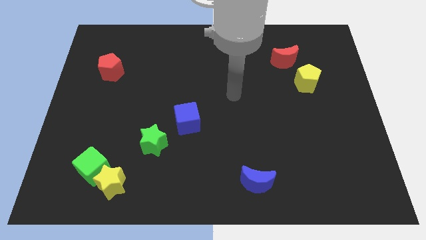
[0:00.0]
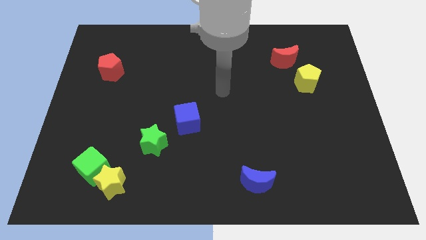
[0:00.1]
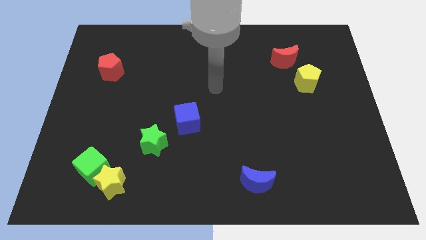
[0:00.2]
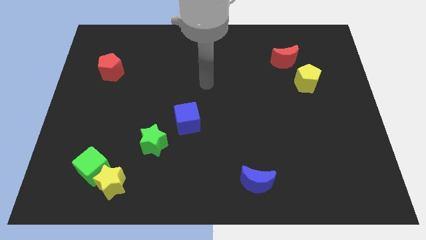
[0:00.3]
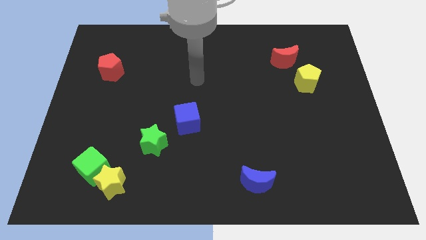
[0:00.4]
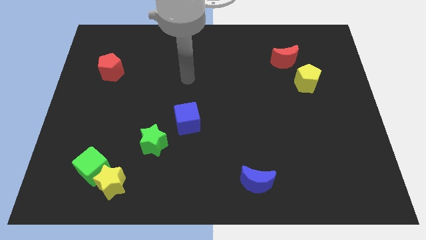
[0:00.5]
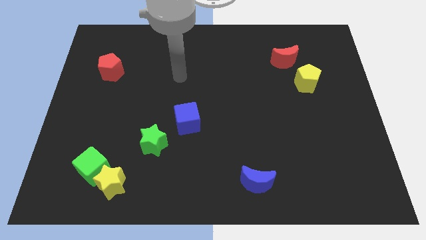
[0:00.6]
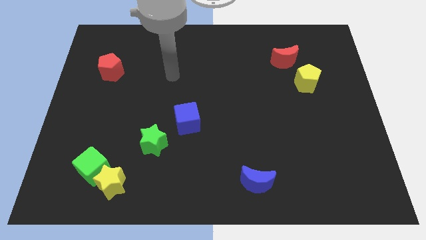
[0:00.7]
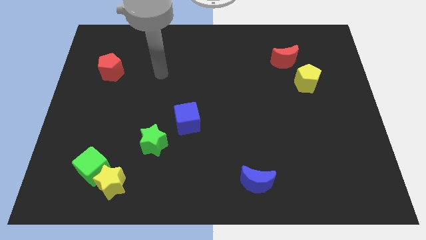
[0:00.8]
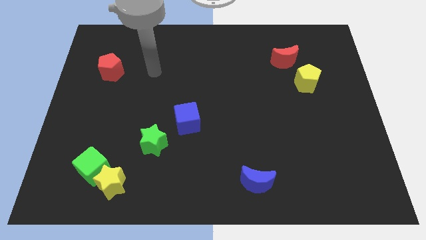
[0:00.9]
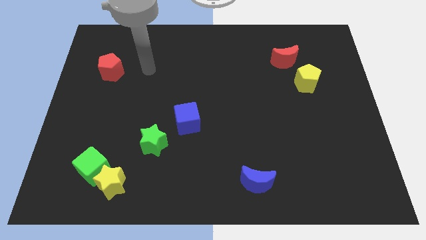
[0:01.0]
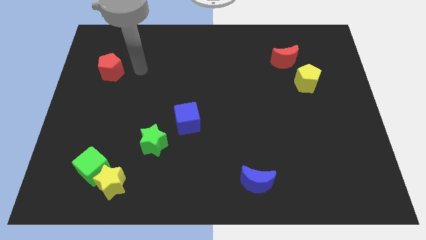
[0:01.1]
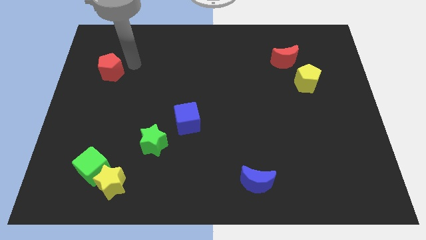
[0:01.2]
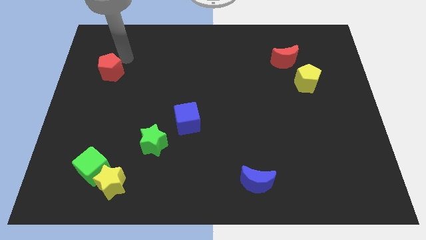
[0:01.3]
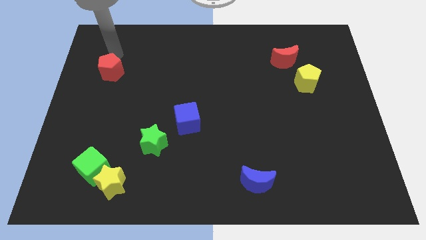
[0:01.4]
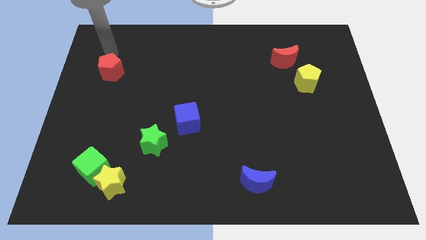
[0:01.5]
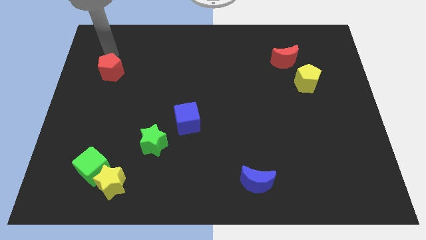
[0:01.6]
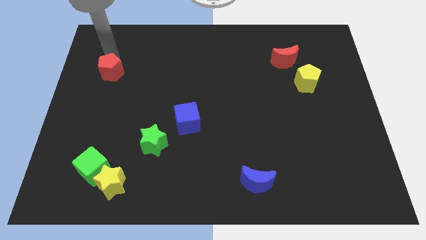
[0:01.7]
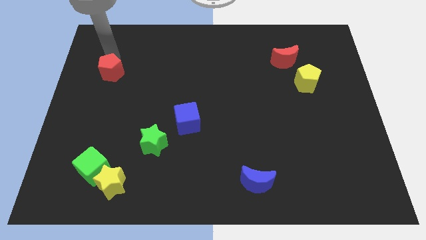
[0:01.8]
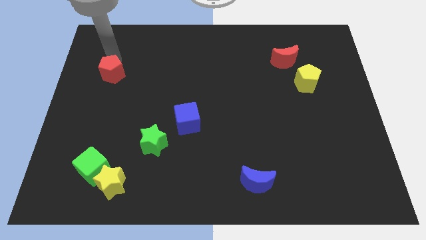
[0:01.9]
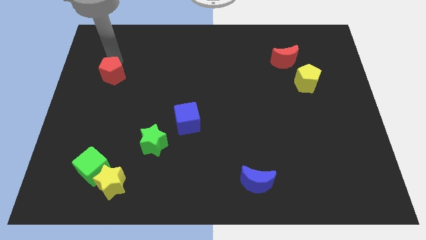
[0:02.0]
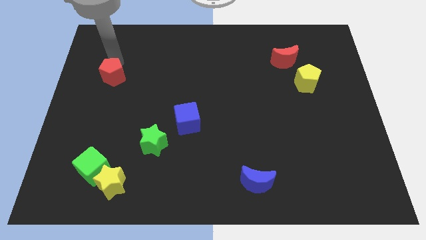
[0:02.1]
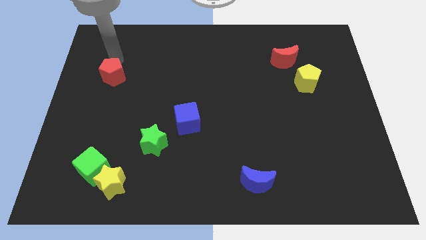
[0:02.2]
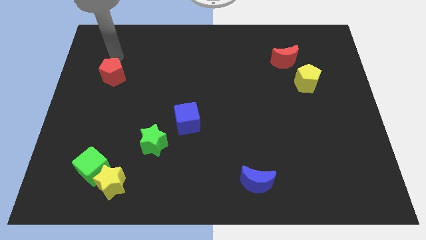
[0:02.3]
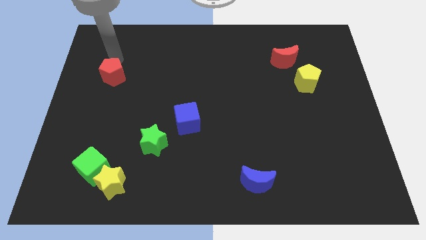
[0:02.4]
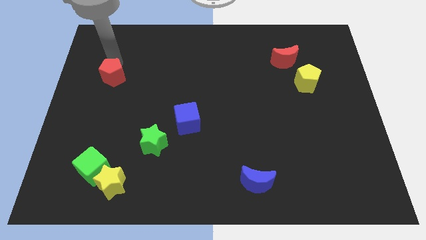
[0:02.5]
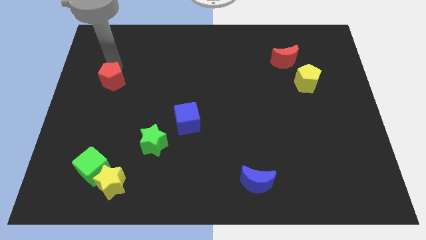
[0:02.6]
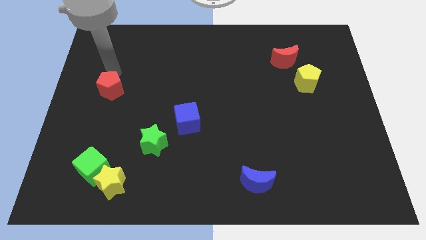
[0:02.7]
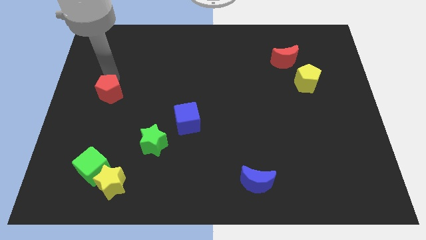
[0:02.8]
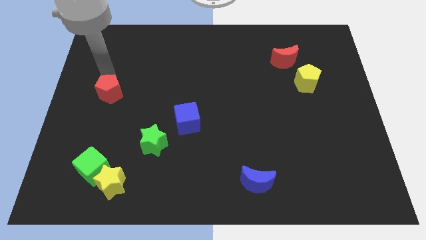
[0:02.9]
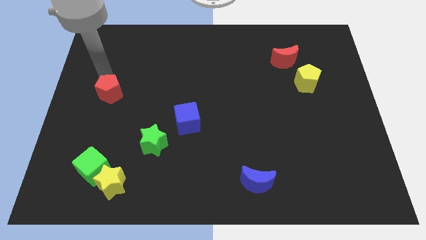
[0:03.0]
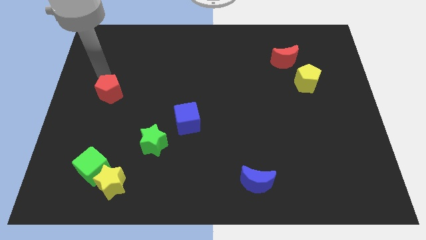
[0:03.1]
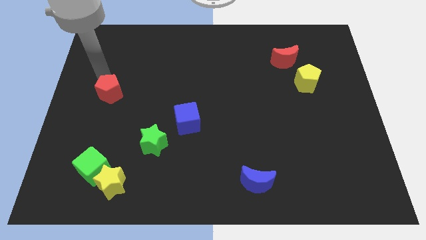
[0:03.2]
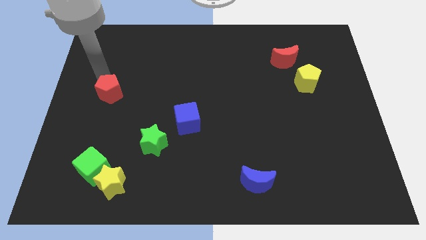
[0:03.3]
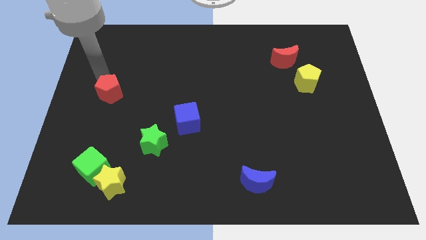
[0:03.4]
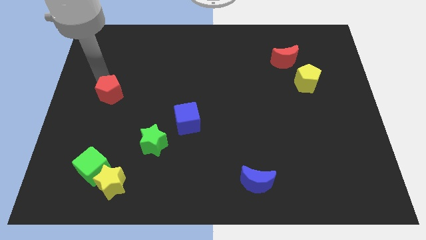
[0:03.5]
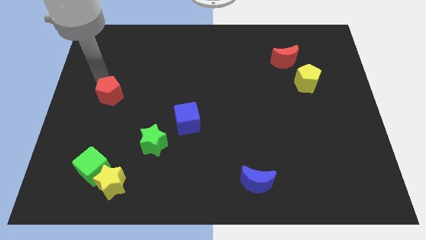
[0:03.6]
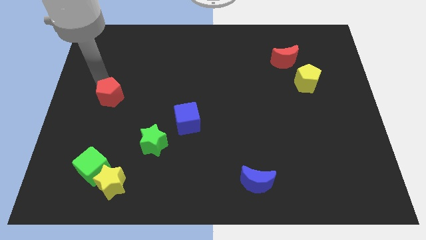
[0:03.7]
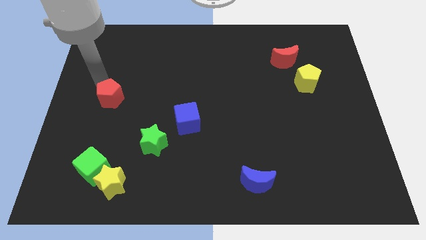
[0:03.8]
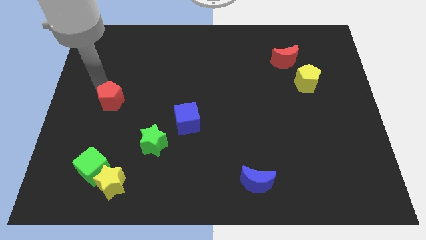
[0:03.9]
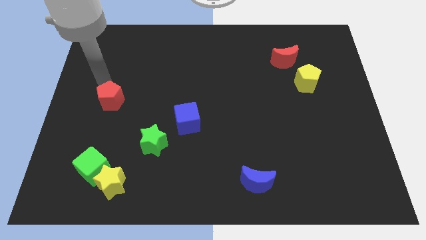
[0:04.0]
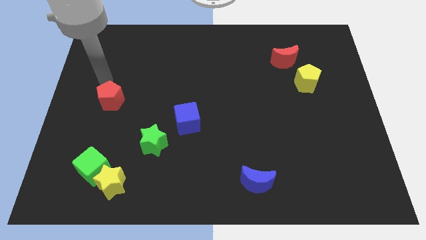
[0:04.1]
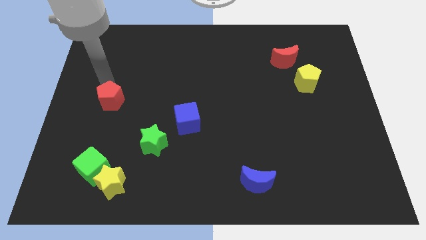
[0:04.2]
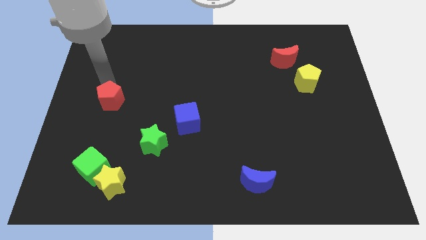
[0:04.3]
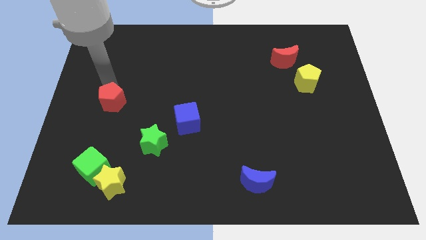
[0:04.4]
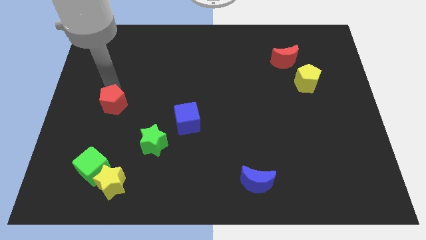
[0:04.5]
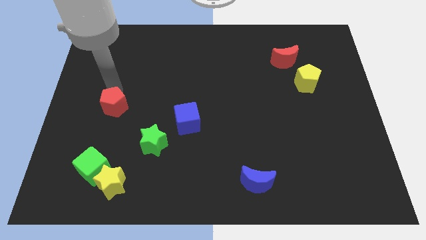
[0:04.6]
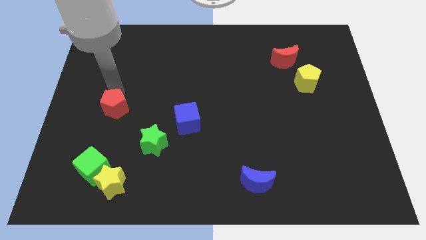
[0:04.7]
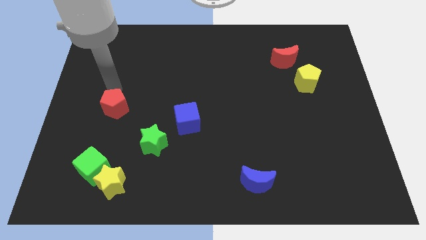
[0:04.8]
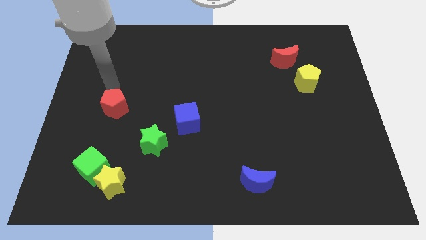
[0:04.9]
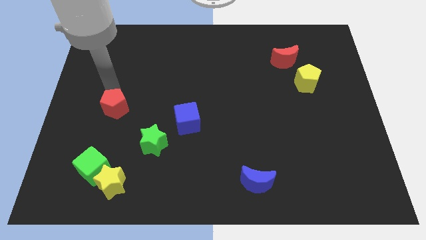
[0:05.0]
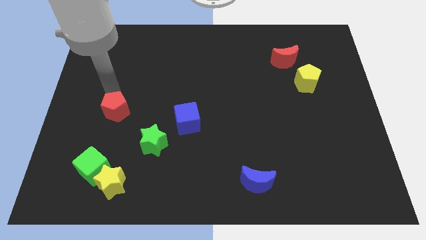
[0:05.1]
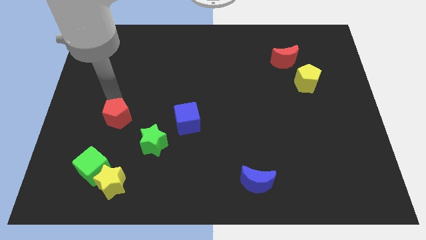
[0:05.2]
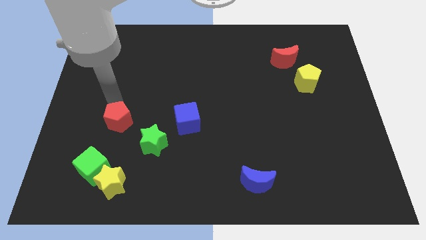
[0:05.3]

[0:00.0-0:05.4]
move the red pentagon to the top side of the yellow star

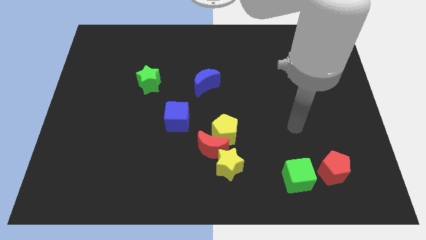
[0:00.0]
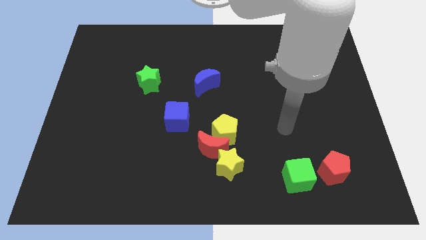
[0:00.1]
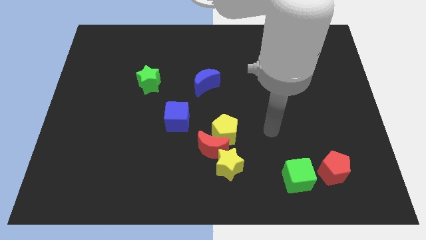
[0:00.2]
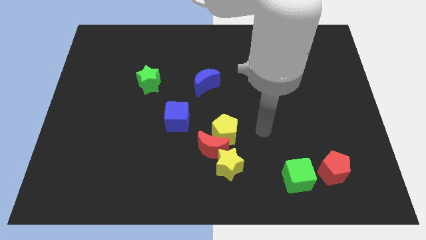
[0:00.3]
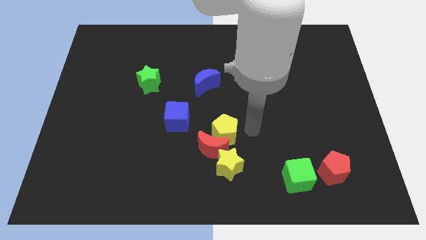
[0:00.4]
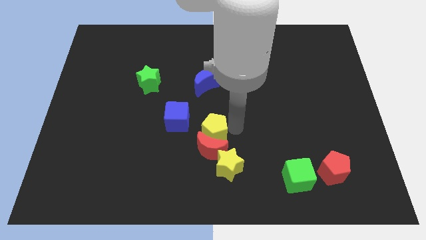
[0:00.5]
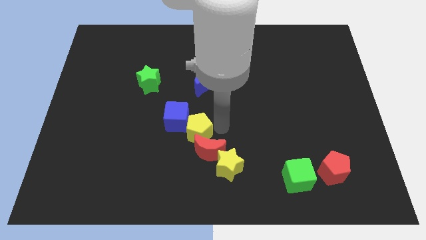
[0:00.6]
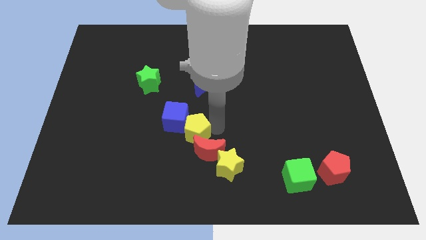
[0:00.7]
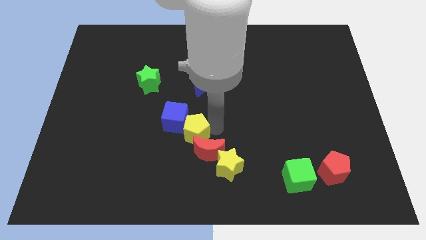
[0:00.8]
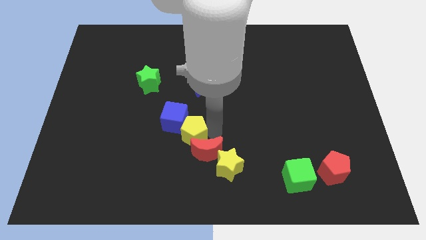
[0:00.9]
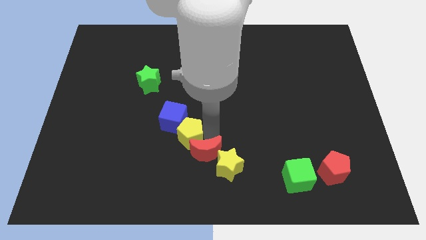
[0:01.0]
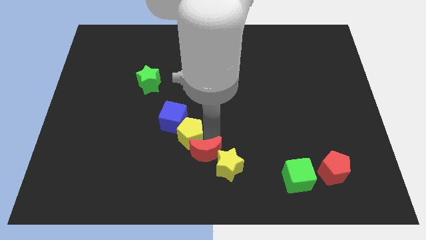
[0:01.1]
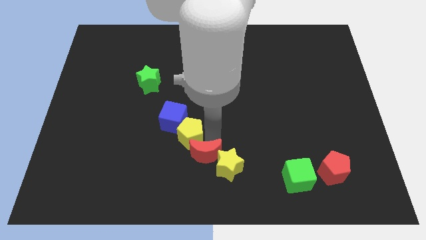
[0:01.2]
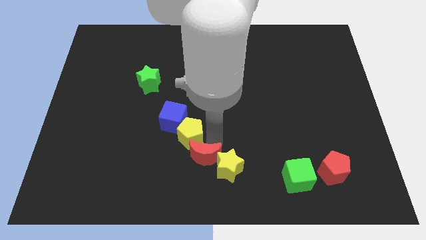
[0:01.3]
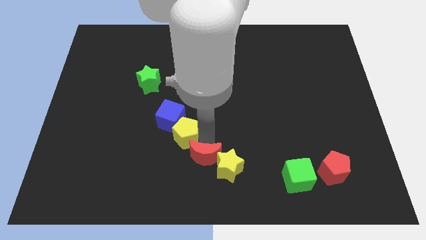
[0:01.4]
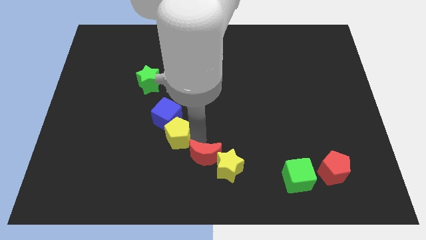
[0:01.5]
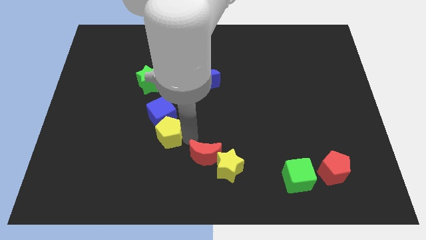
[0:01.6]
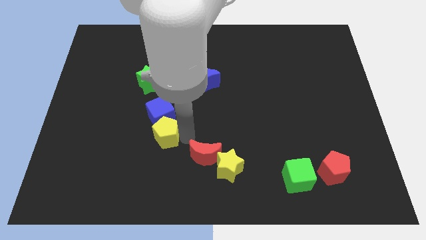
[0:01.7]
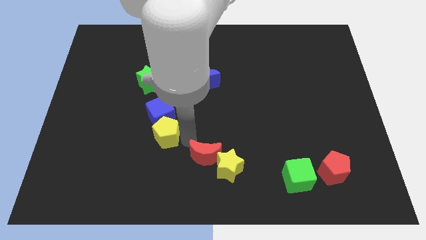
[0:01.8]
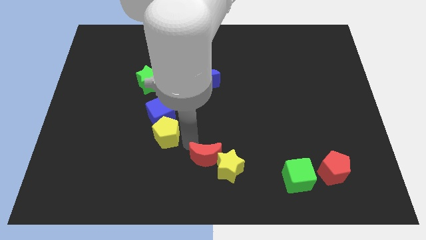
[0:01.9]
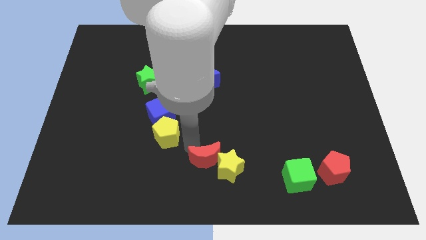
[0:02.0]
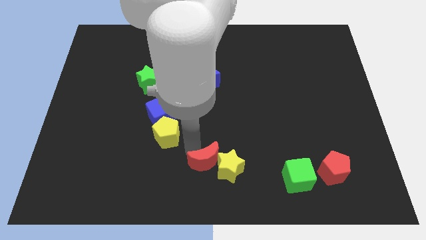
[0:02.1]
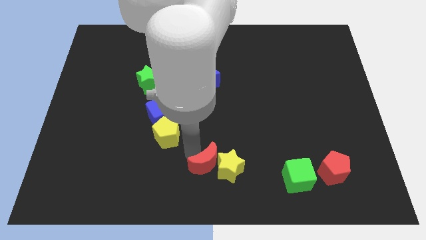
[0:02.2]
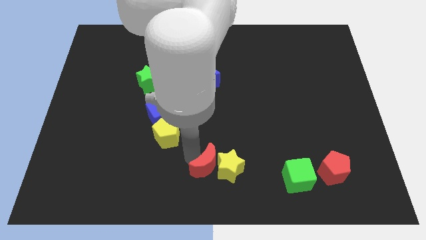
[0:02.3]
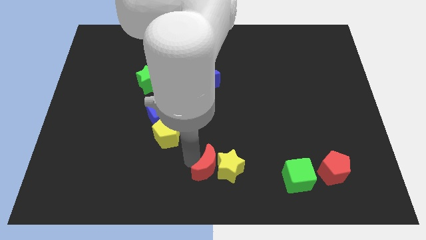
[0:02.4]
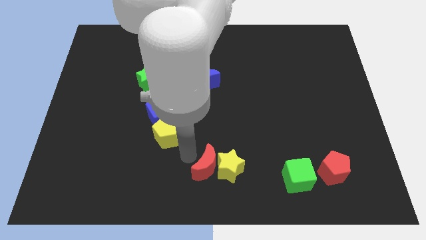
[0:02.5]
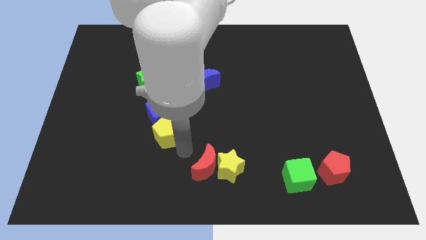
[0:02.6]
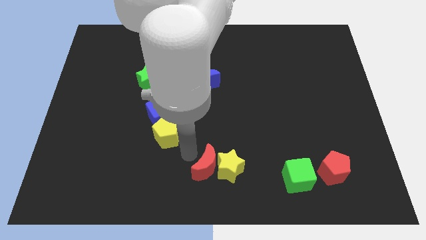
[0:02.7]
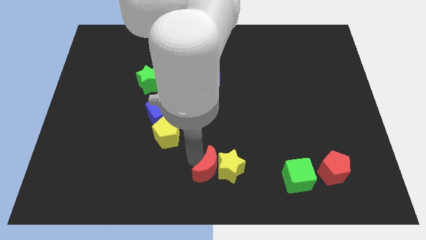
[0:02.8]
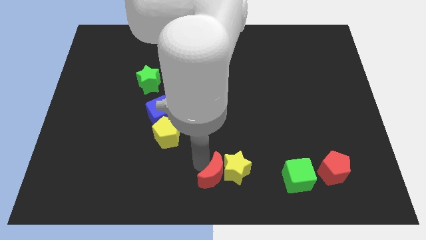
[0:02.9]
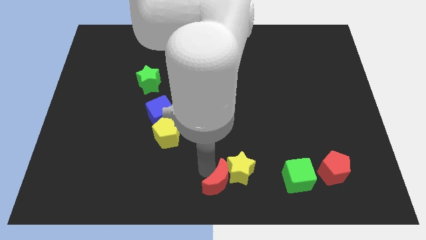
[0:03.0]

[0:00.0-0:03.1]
move the red moon left of the green cube
